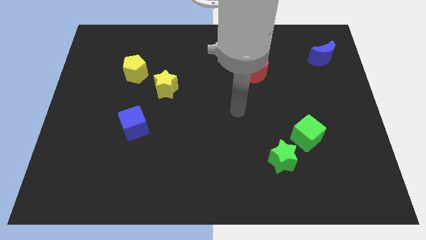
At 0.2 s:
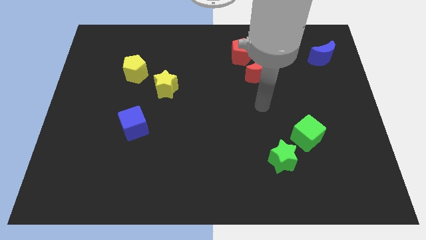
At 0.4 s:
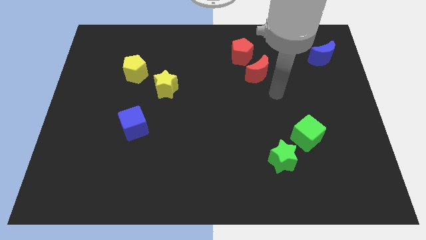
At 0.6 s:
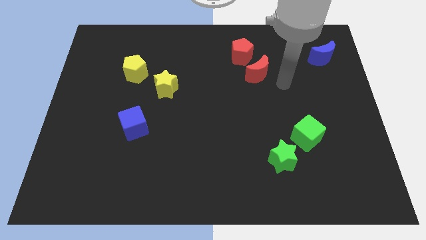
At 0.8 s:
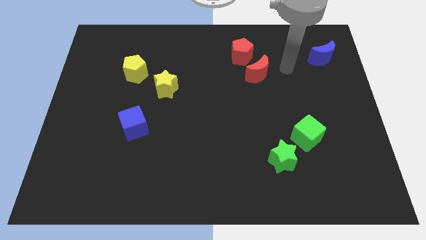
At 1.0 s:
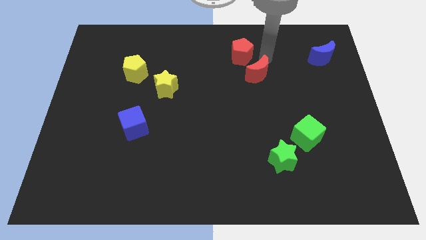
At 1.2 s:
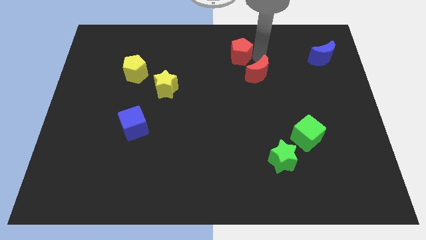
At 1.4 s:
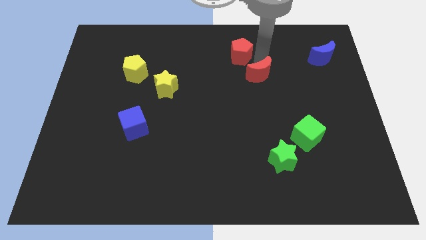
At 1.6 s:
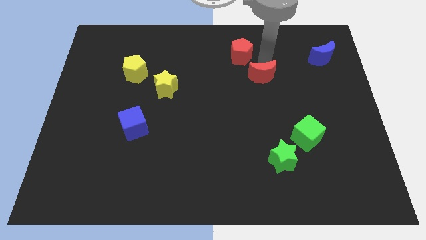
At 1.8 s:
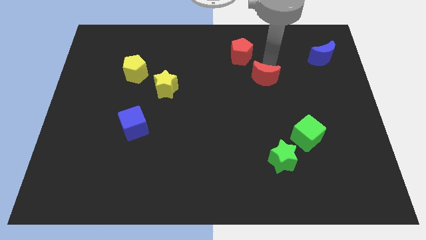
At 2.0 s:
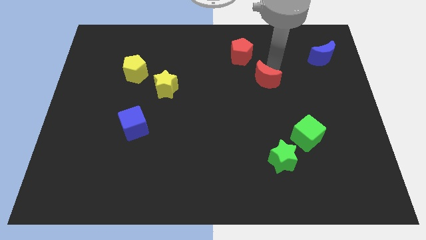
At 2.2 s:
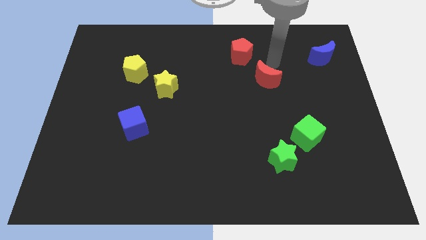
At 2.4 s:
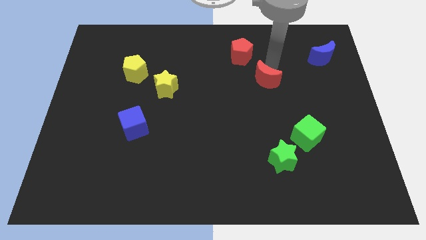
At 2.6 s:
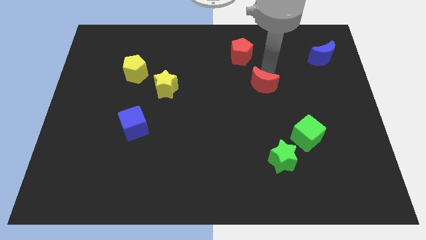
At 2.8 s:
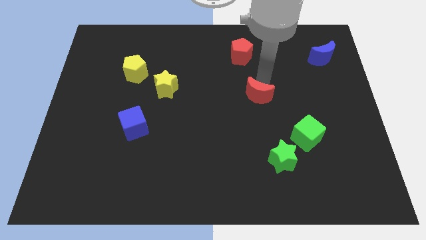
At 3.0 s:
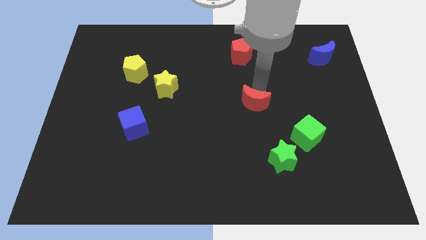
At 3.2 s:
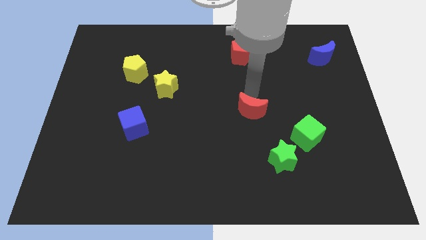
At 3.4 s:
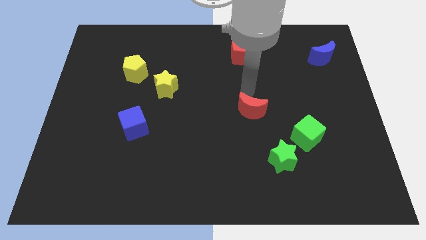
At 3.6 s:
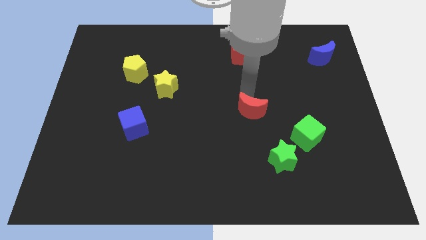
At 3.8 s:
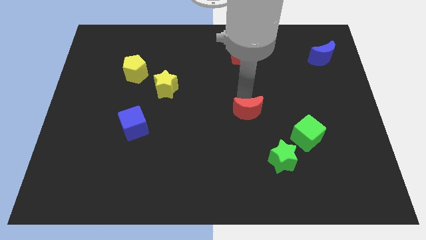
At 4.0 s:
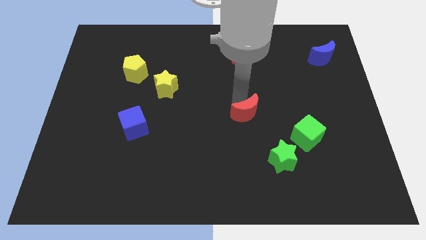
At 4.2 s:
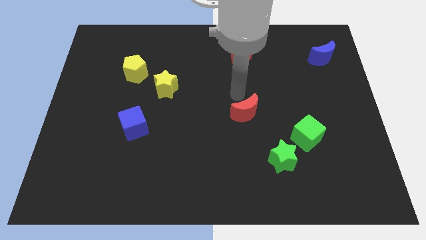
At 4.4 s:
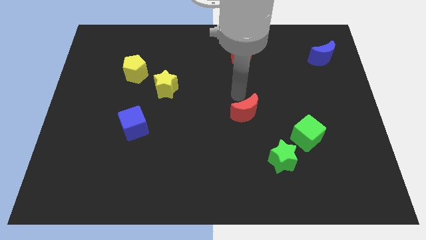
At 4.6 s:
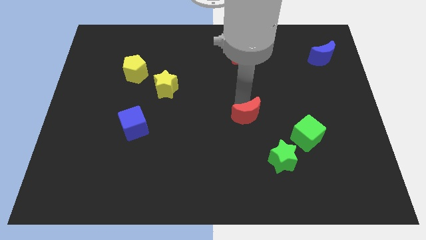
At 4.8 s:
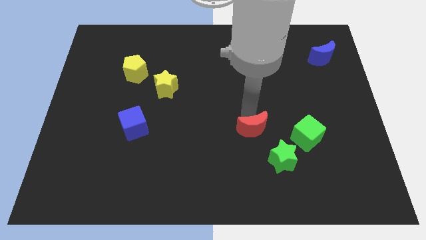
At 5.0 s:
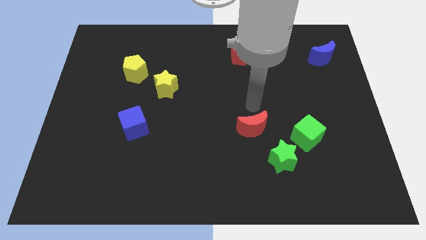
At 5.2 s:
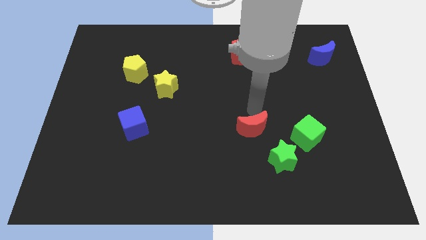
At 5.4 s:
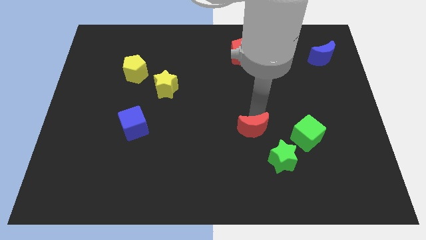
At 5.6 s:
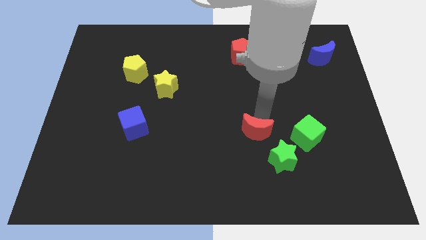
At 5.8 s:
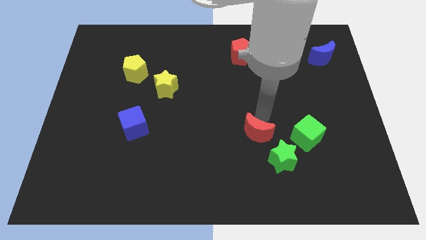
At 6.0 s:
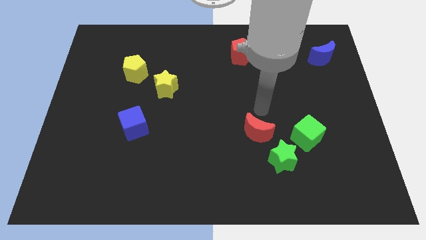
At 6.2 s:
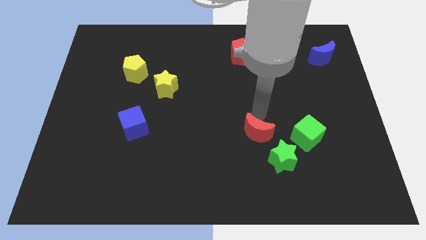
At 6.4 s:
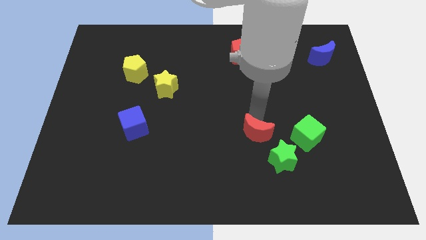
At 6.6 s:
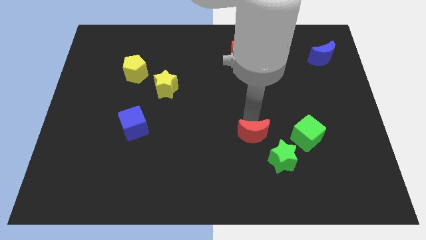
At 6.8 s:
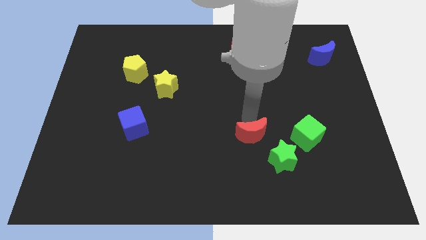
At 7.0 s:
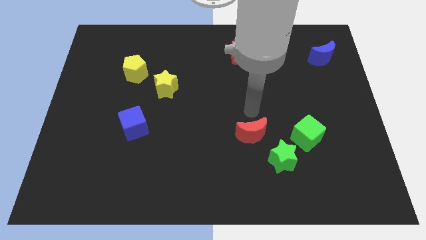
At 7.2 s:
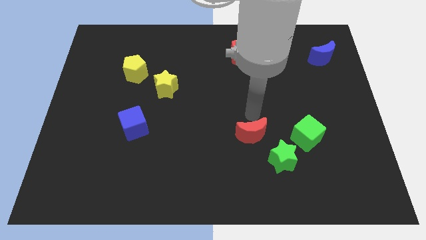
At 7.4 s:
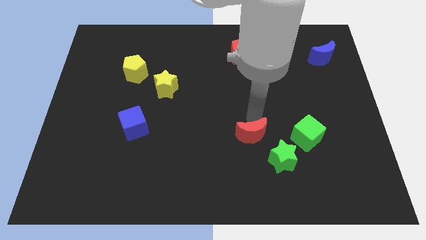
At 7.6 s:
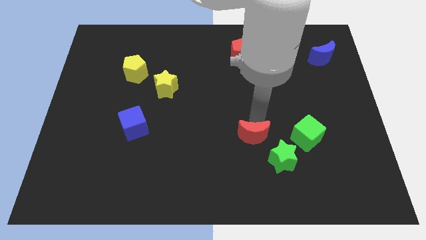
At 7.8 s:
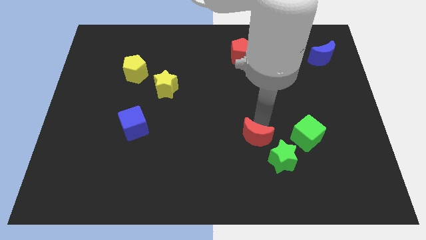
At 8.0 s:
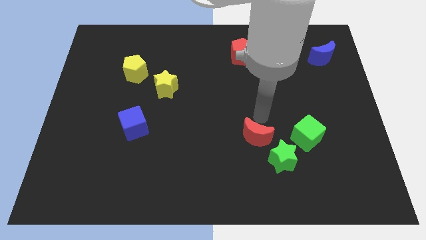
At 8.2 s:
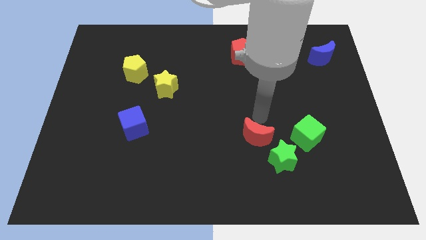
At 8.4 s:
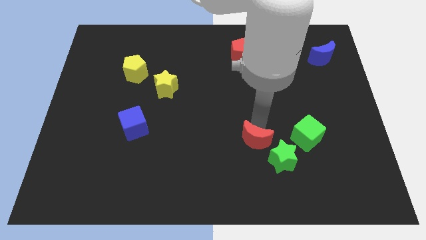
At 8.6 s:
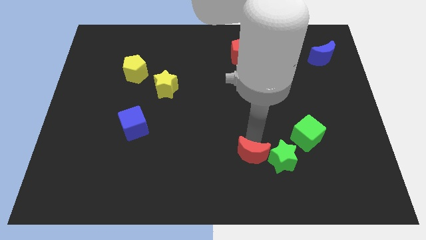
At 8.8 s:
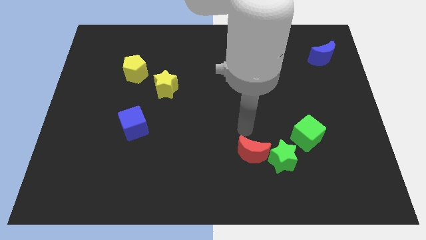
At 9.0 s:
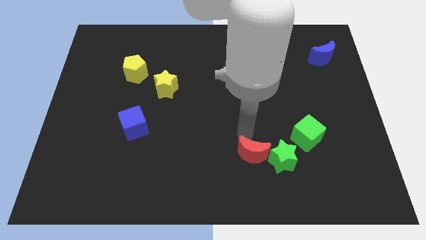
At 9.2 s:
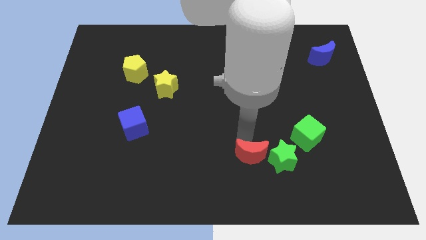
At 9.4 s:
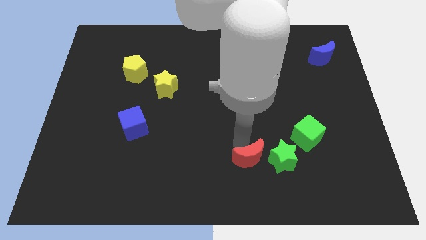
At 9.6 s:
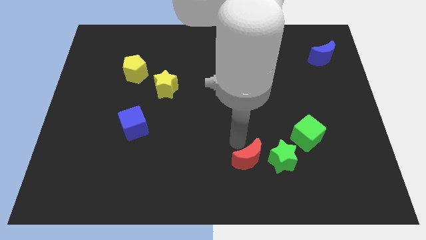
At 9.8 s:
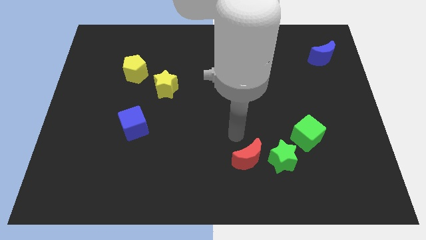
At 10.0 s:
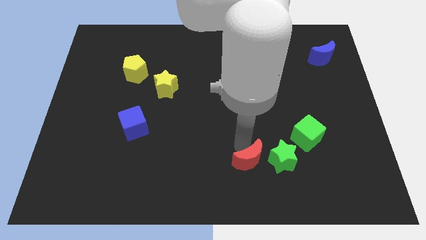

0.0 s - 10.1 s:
push the red moon diagonally down and to the left of the green star

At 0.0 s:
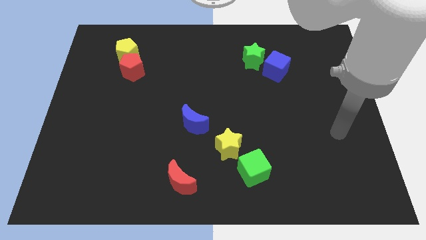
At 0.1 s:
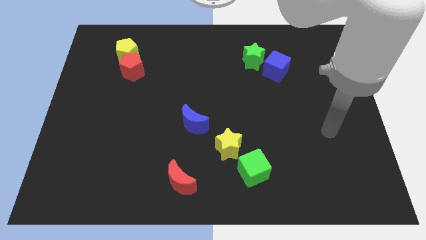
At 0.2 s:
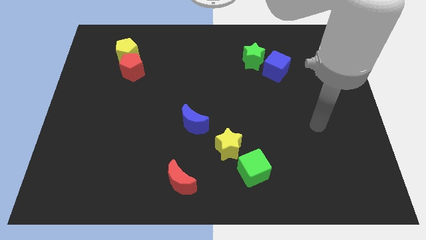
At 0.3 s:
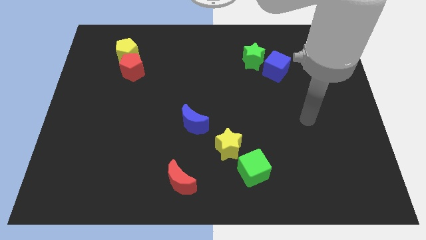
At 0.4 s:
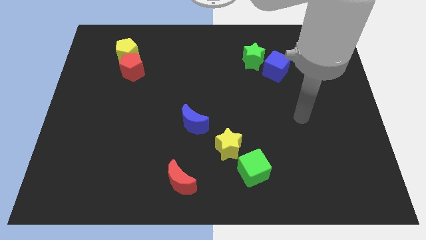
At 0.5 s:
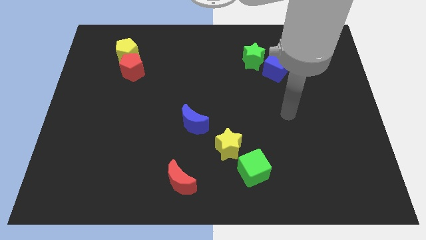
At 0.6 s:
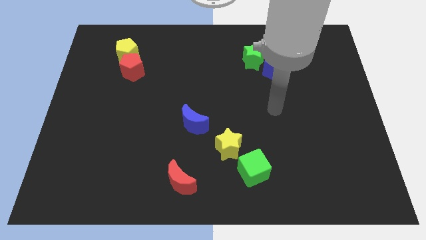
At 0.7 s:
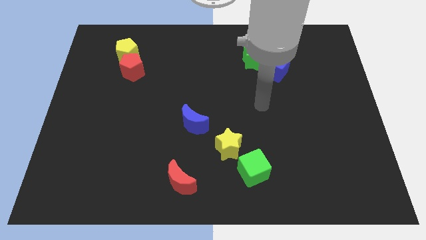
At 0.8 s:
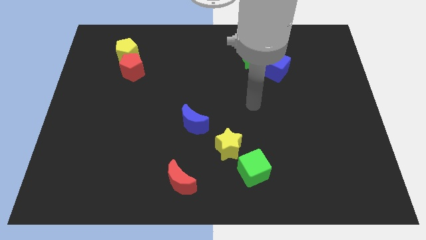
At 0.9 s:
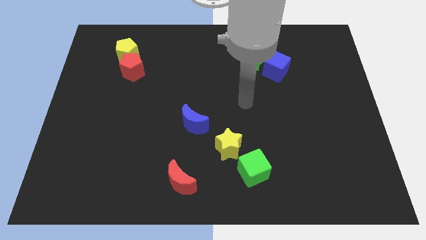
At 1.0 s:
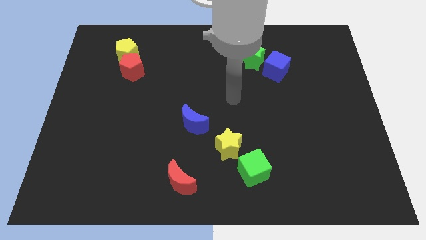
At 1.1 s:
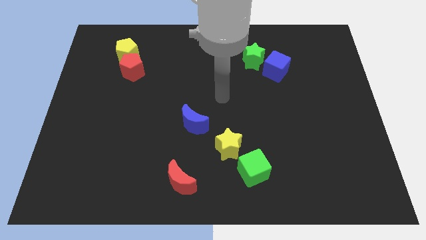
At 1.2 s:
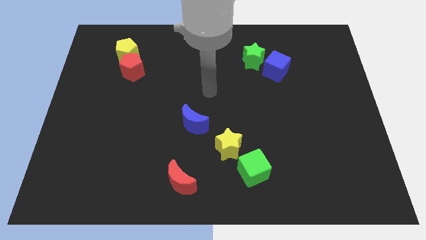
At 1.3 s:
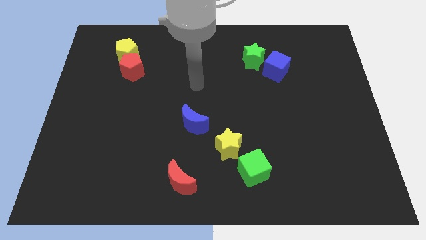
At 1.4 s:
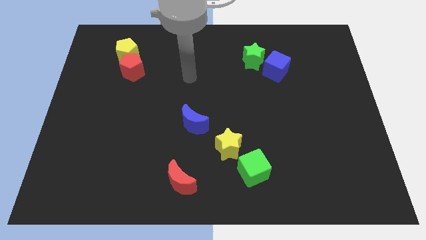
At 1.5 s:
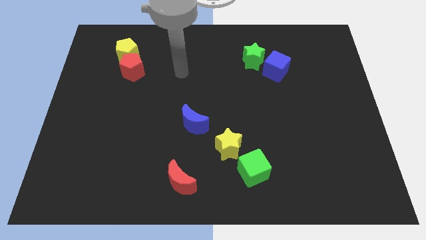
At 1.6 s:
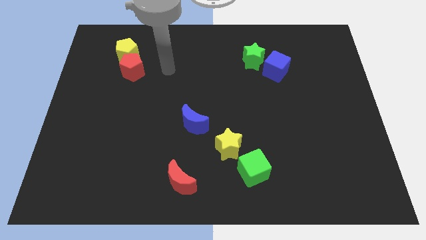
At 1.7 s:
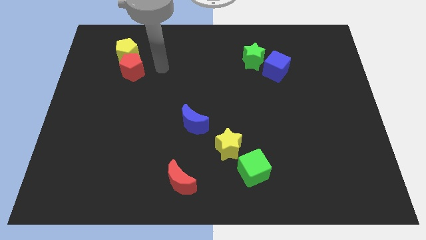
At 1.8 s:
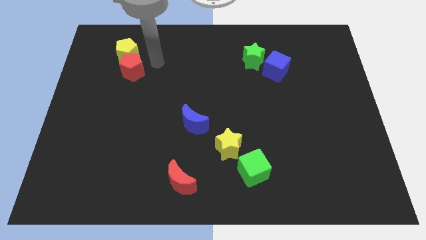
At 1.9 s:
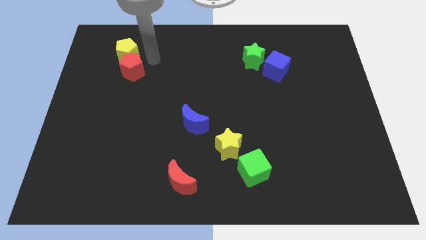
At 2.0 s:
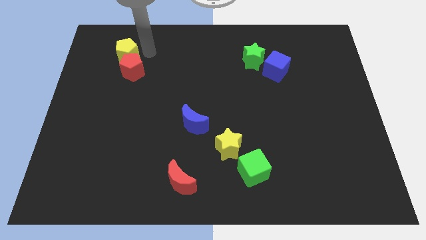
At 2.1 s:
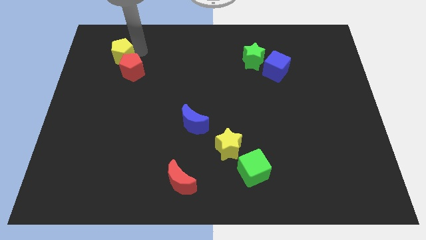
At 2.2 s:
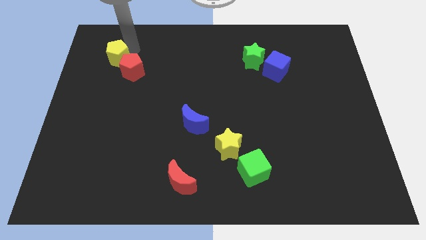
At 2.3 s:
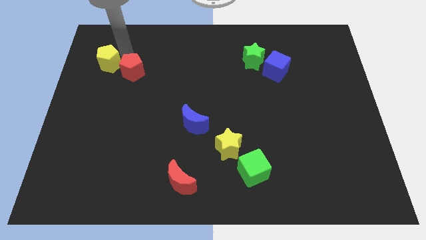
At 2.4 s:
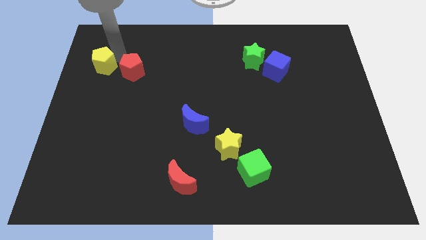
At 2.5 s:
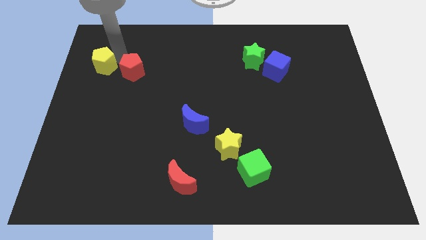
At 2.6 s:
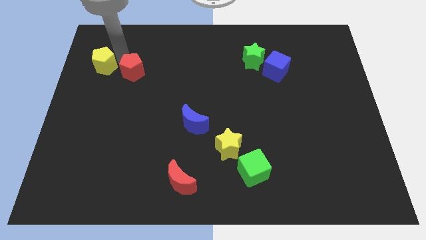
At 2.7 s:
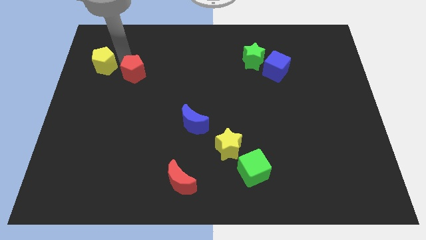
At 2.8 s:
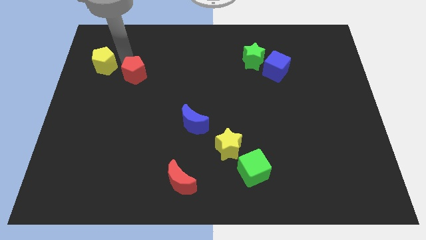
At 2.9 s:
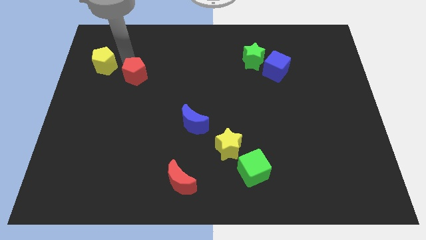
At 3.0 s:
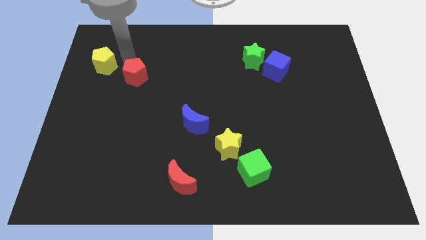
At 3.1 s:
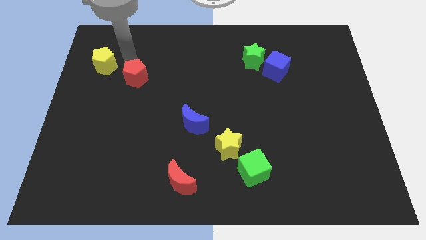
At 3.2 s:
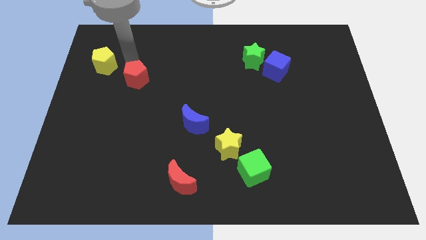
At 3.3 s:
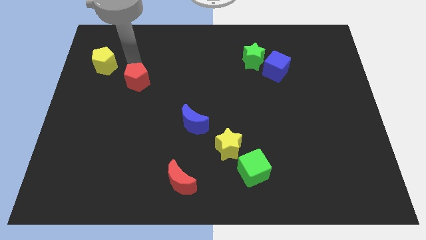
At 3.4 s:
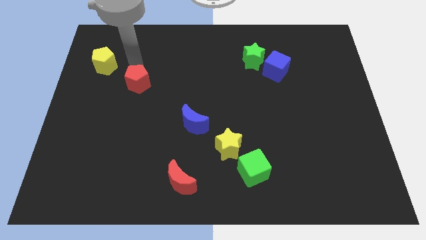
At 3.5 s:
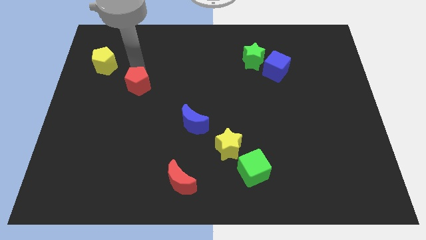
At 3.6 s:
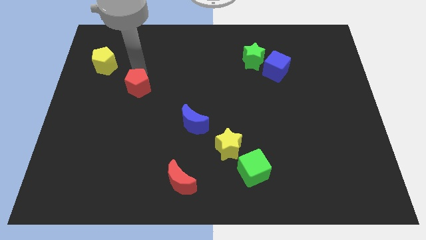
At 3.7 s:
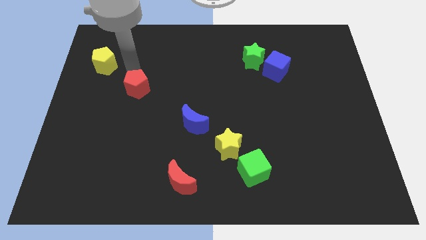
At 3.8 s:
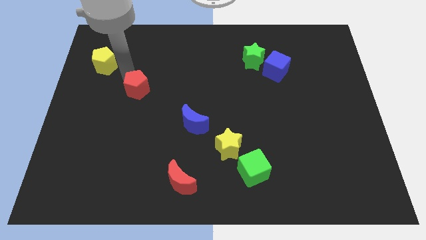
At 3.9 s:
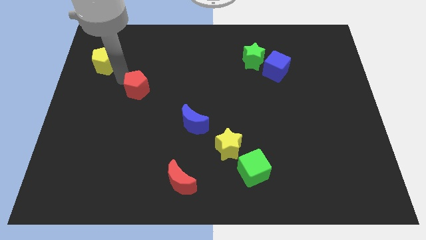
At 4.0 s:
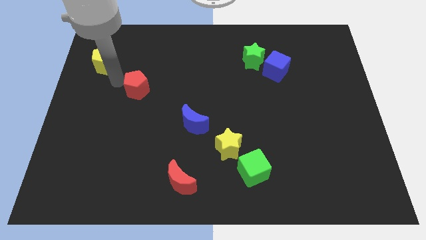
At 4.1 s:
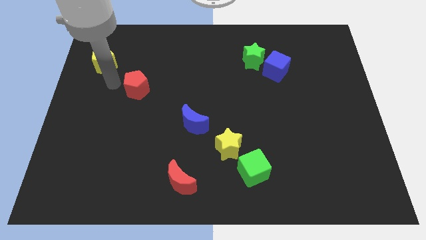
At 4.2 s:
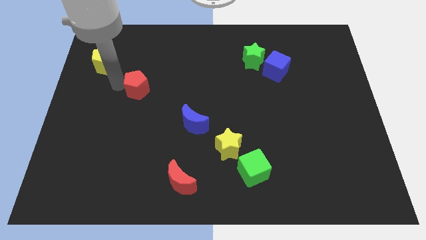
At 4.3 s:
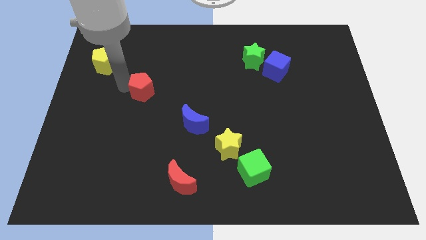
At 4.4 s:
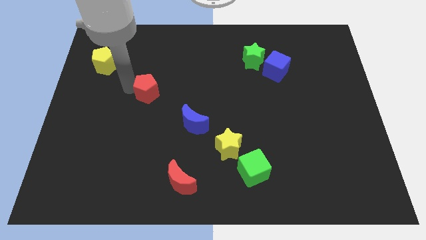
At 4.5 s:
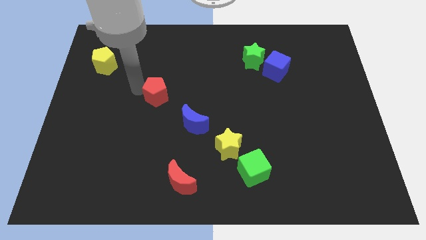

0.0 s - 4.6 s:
push the red pentagon to the top left of the blue moon
